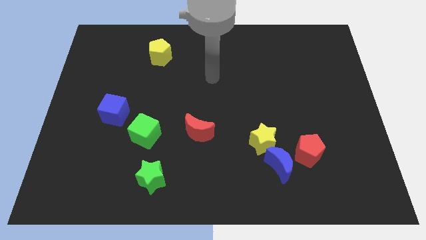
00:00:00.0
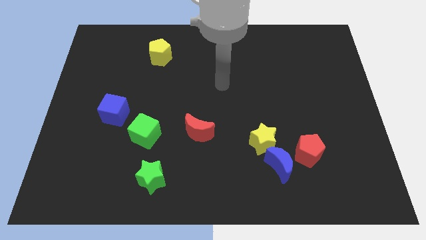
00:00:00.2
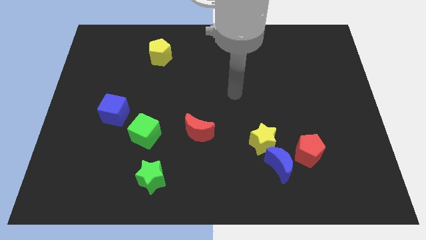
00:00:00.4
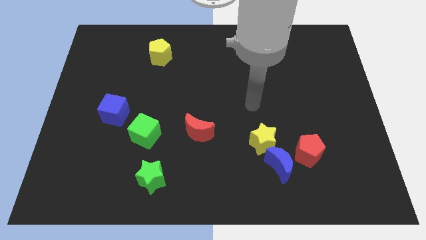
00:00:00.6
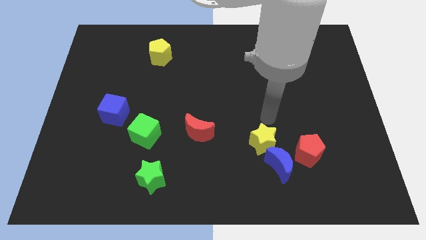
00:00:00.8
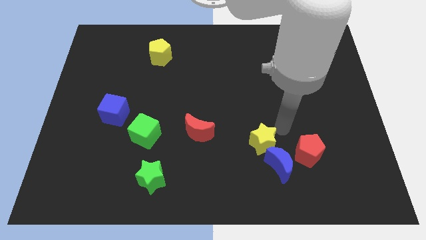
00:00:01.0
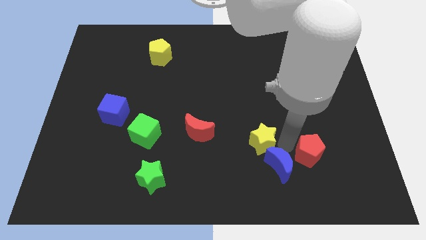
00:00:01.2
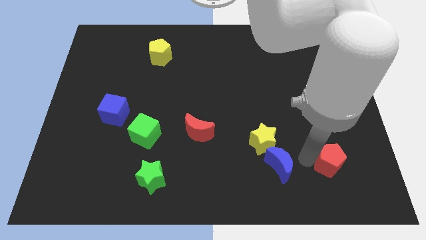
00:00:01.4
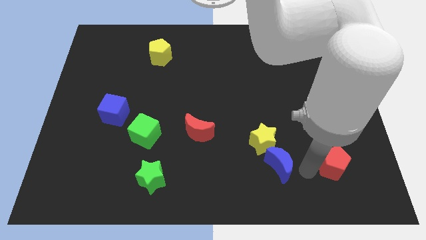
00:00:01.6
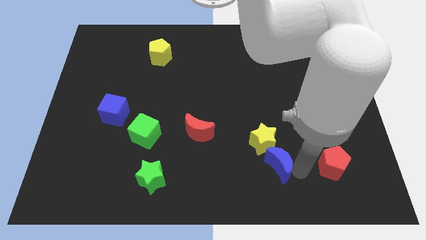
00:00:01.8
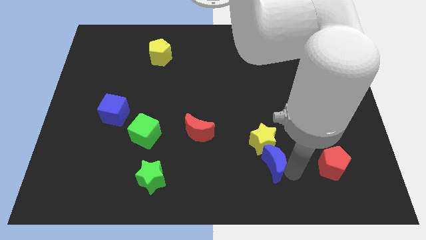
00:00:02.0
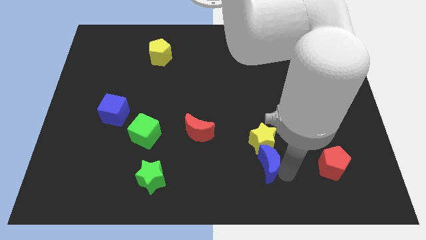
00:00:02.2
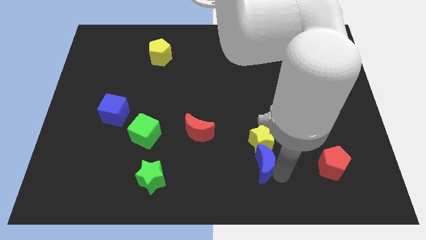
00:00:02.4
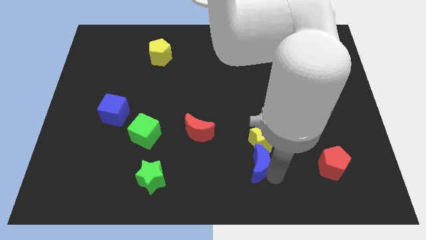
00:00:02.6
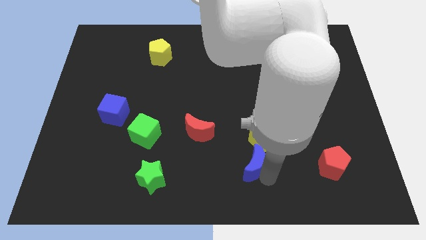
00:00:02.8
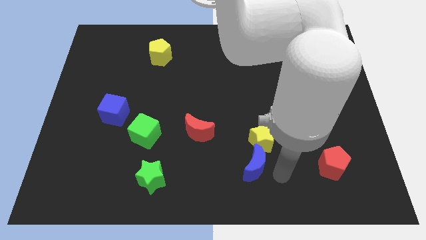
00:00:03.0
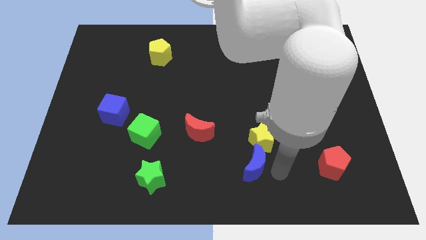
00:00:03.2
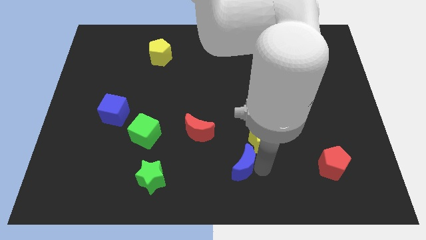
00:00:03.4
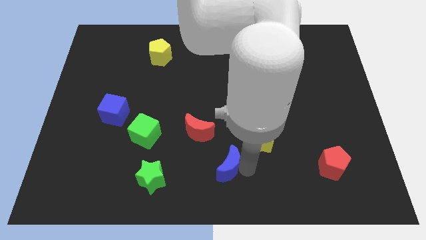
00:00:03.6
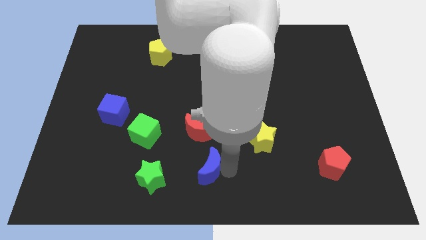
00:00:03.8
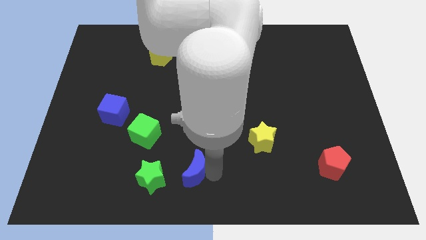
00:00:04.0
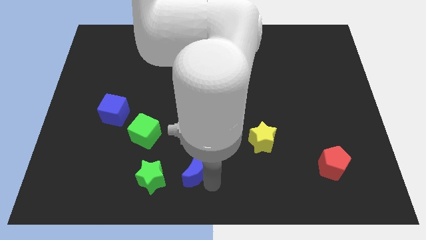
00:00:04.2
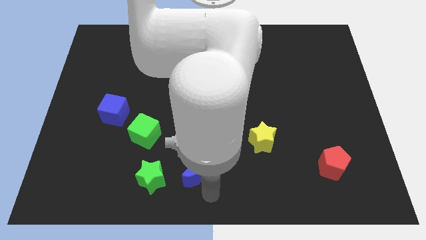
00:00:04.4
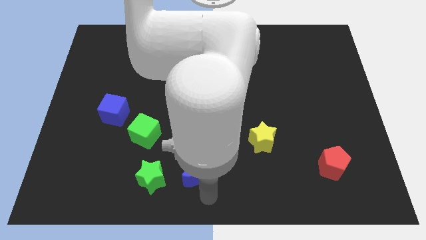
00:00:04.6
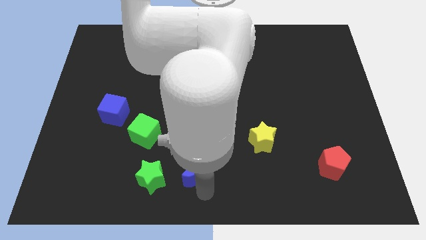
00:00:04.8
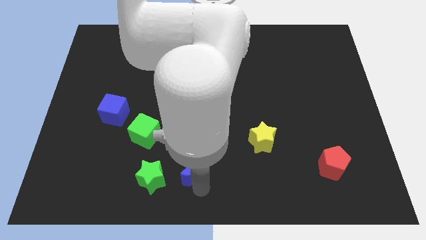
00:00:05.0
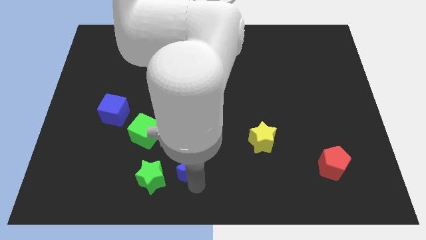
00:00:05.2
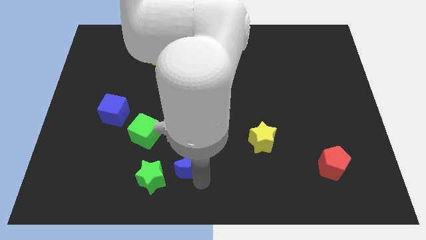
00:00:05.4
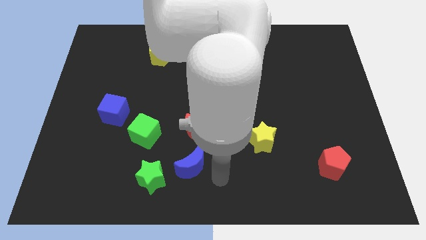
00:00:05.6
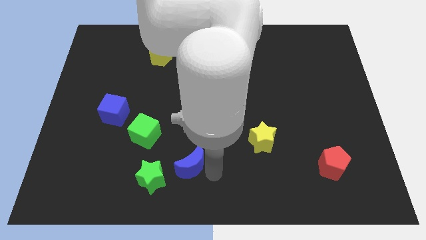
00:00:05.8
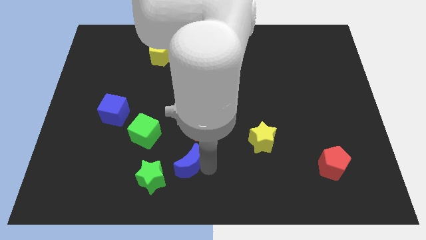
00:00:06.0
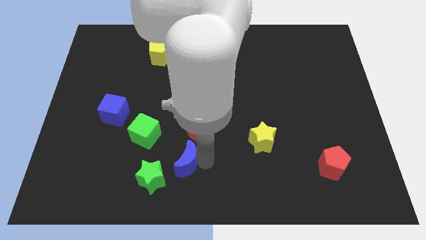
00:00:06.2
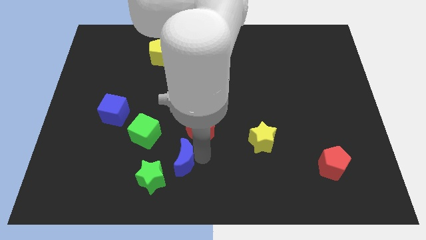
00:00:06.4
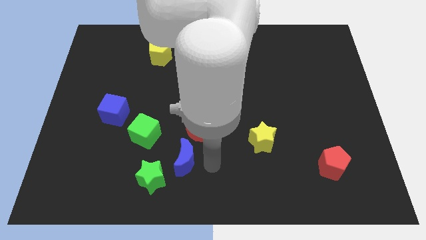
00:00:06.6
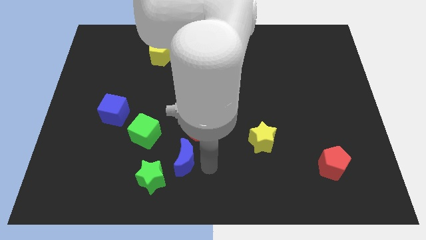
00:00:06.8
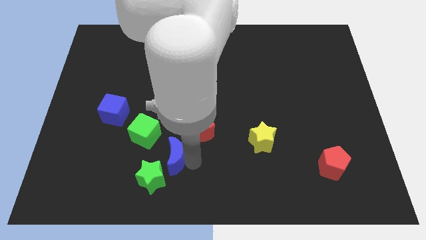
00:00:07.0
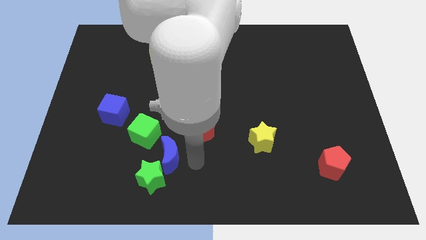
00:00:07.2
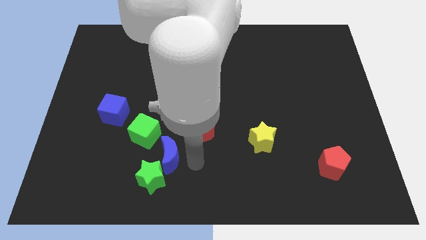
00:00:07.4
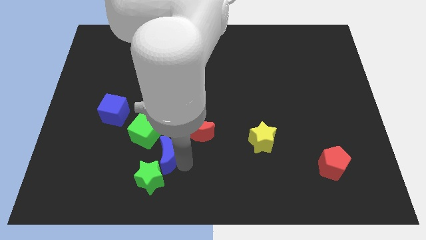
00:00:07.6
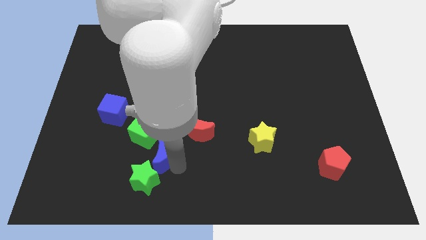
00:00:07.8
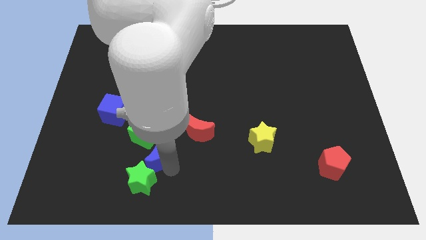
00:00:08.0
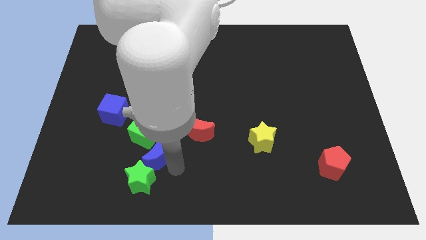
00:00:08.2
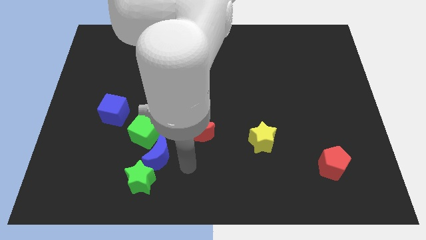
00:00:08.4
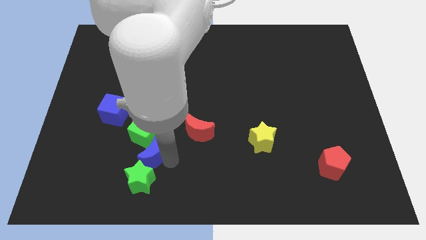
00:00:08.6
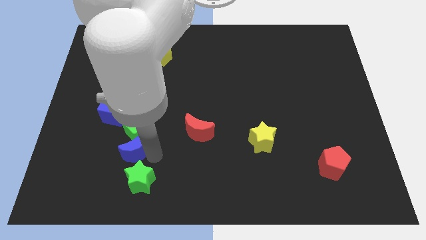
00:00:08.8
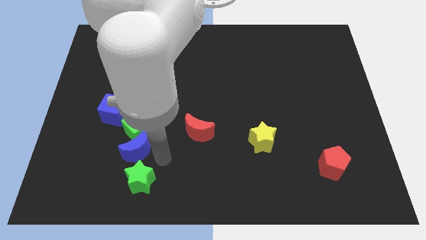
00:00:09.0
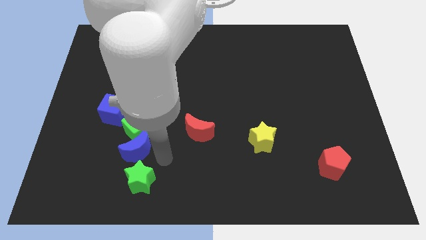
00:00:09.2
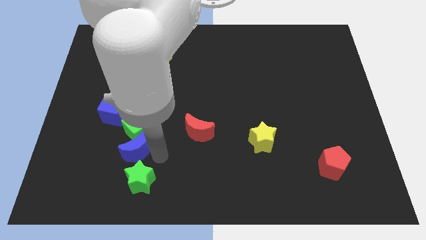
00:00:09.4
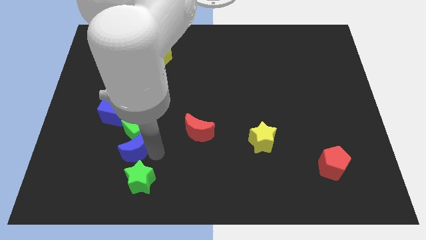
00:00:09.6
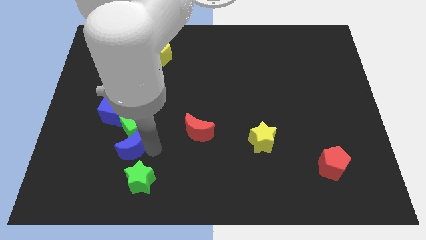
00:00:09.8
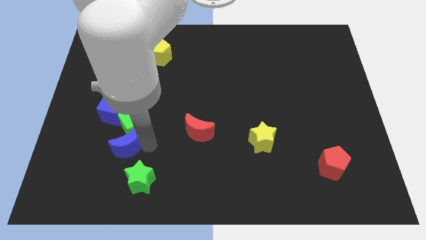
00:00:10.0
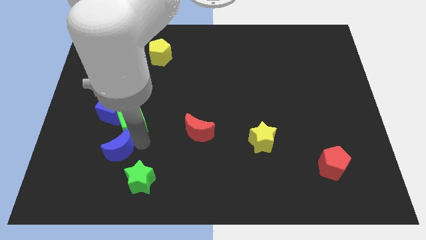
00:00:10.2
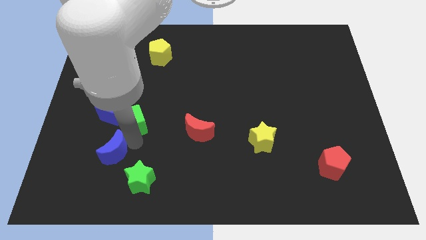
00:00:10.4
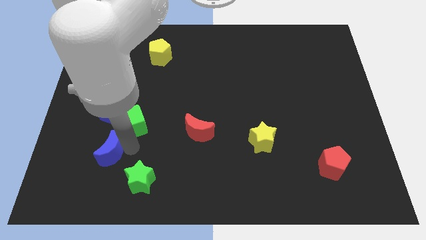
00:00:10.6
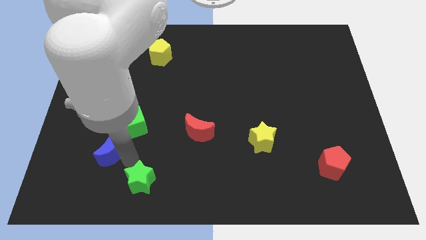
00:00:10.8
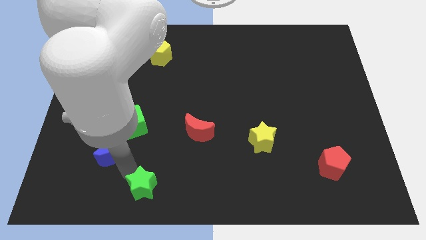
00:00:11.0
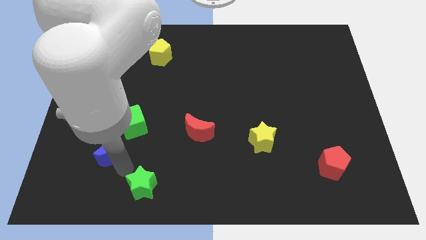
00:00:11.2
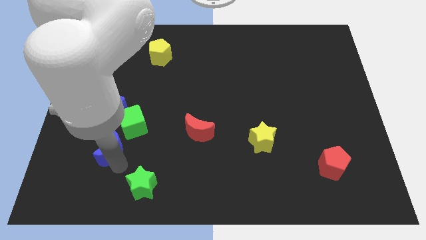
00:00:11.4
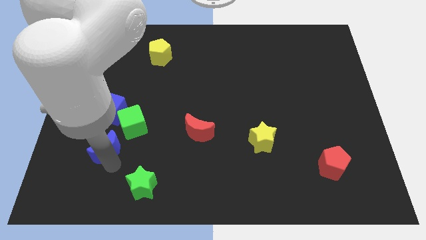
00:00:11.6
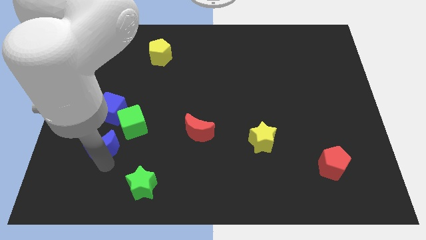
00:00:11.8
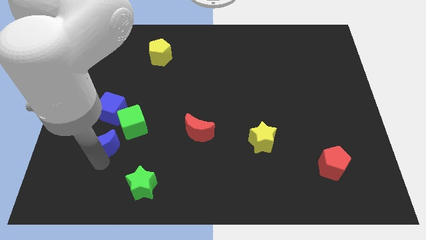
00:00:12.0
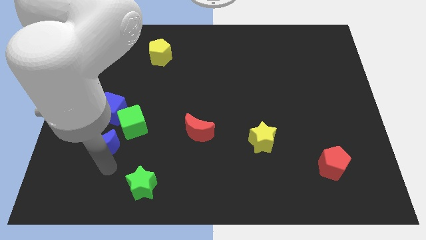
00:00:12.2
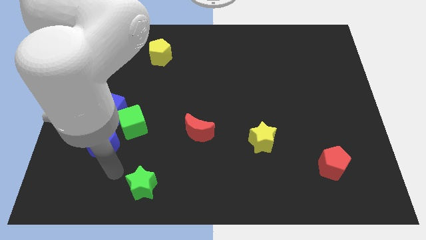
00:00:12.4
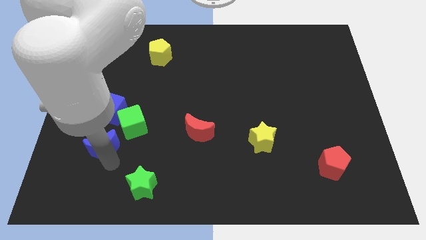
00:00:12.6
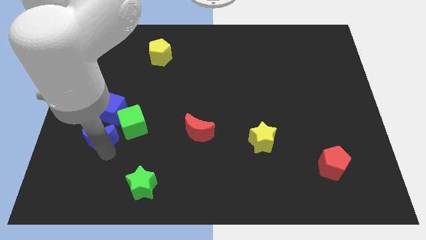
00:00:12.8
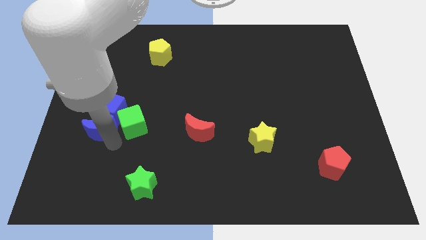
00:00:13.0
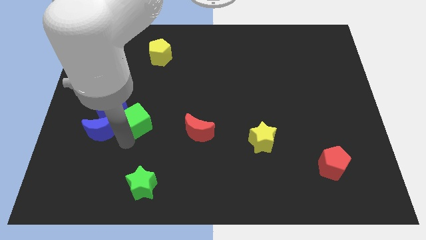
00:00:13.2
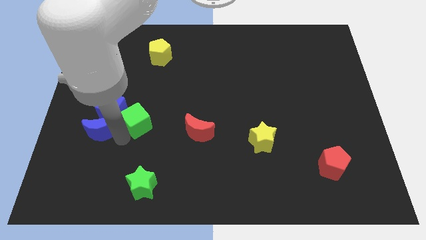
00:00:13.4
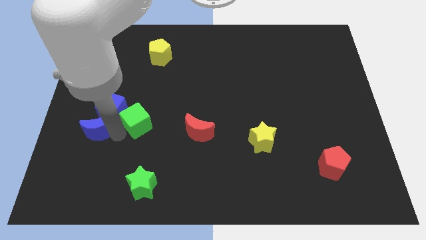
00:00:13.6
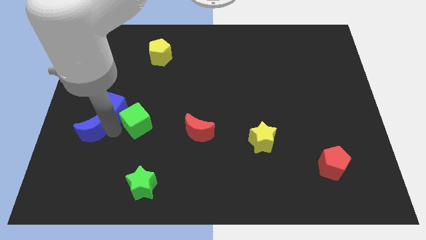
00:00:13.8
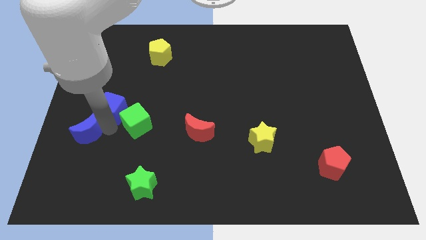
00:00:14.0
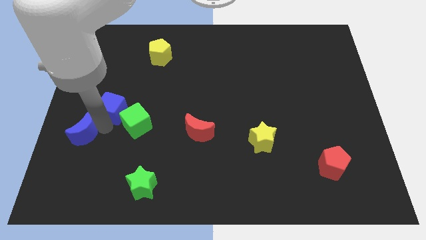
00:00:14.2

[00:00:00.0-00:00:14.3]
move the blue moon to the left side of the board
